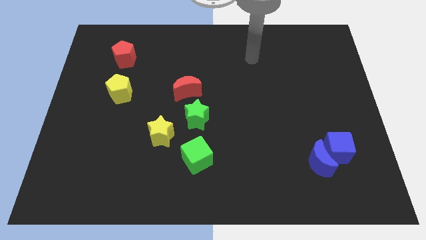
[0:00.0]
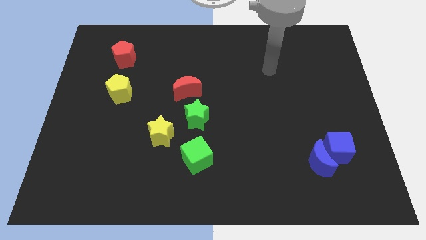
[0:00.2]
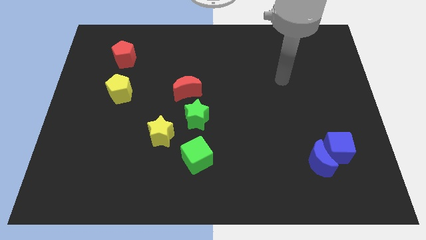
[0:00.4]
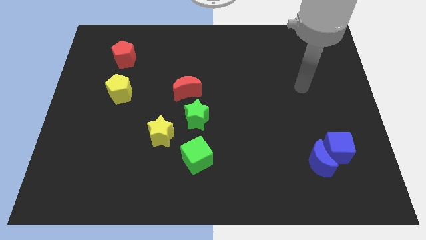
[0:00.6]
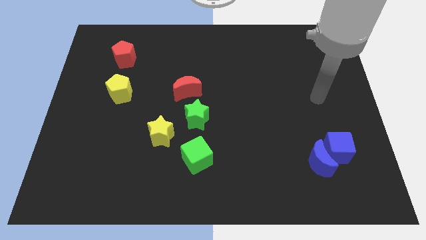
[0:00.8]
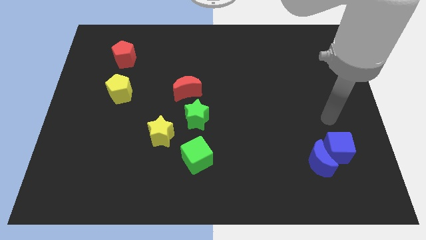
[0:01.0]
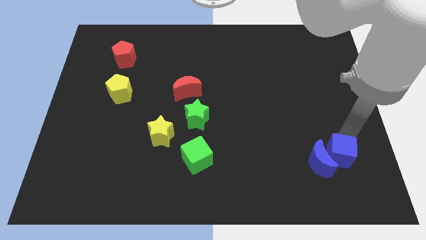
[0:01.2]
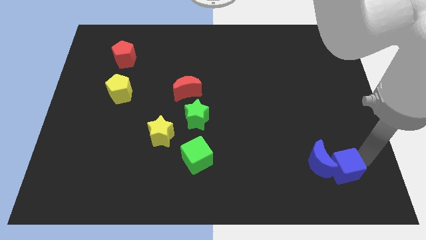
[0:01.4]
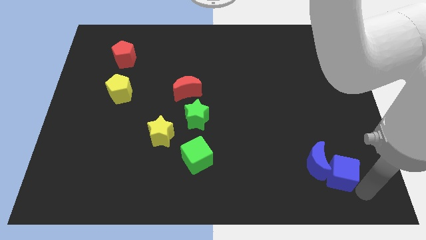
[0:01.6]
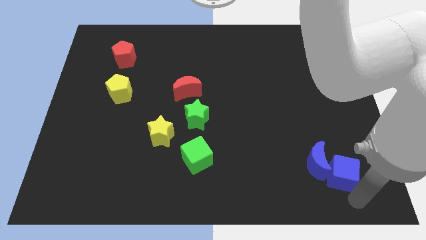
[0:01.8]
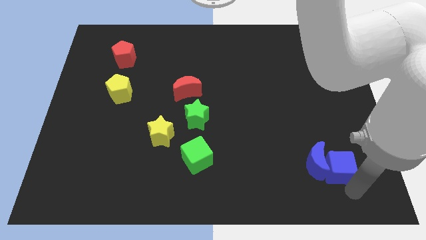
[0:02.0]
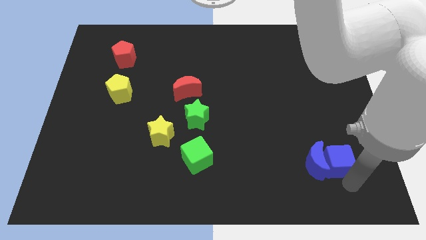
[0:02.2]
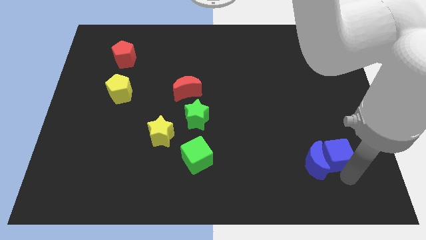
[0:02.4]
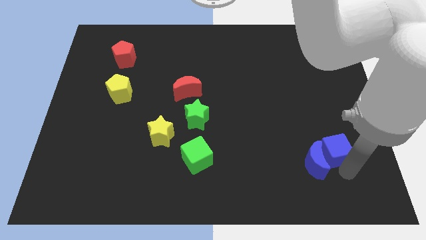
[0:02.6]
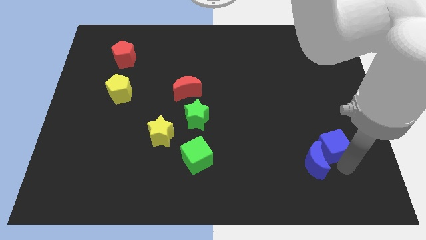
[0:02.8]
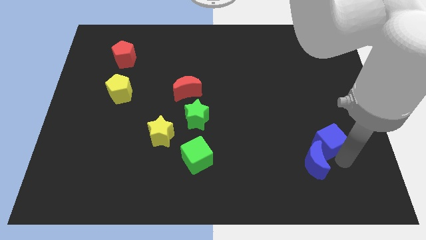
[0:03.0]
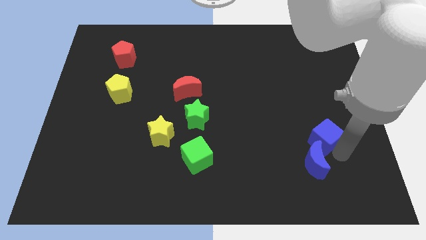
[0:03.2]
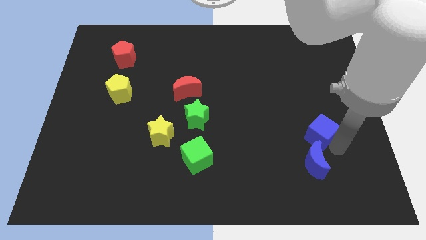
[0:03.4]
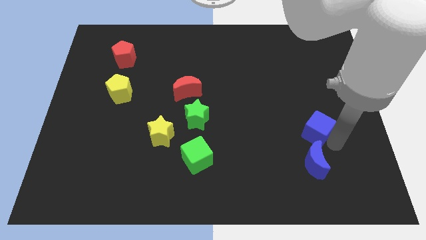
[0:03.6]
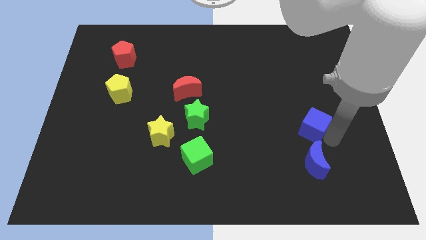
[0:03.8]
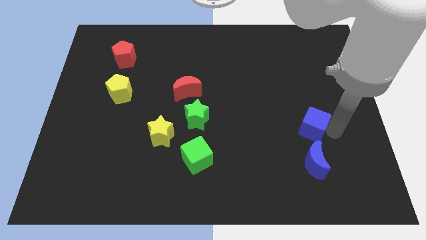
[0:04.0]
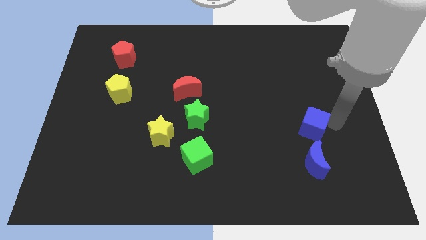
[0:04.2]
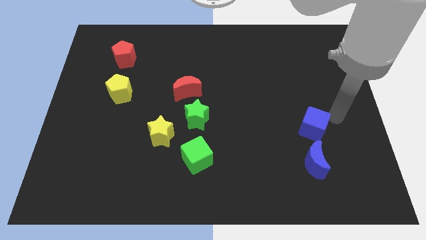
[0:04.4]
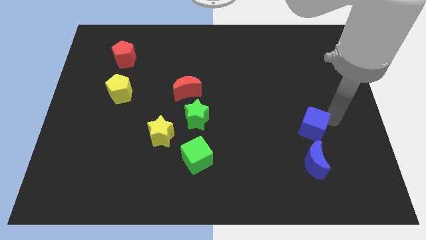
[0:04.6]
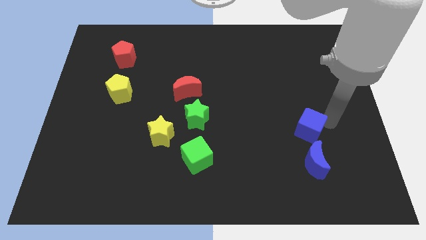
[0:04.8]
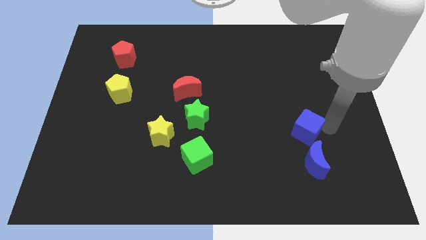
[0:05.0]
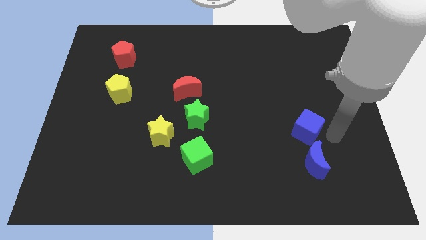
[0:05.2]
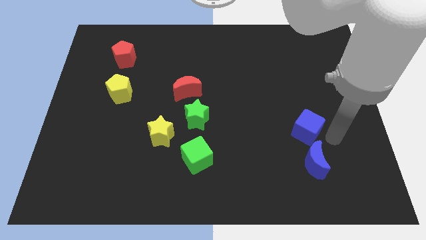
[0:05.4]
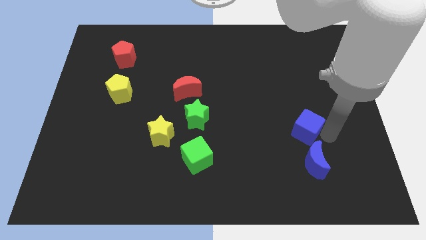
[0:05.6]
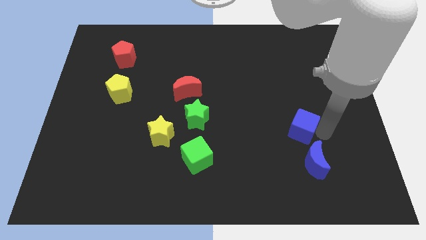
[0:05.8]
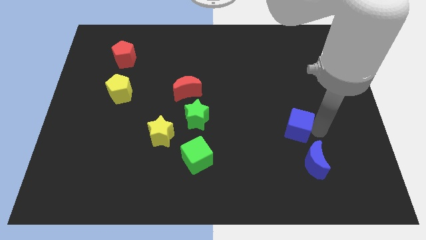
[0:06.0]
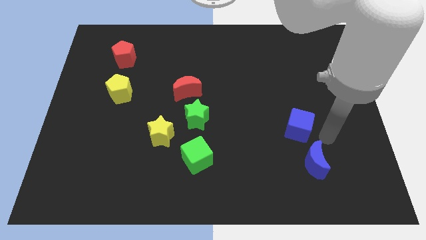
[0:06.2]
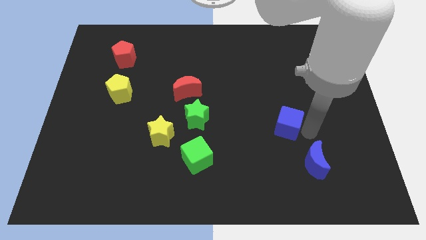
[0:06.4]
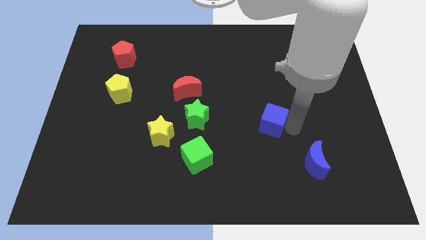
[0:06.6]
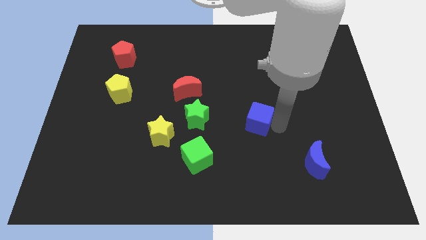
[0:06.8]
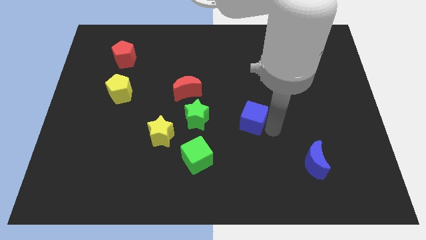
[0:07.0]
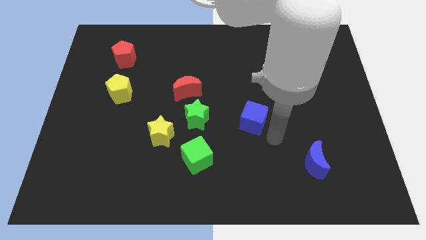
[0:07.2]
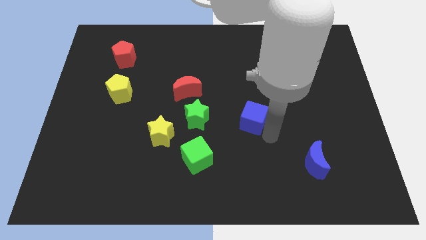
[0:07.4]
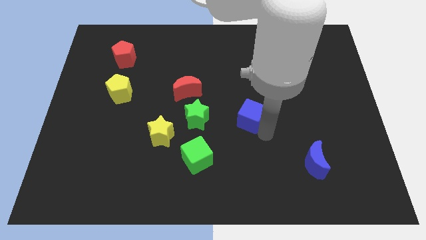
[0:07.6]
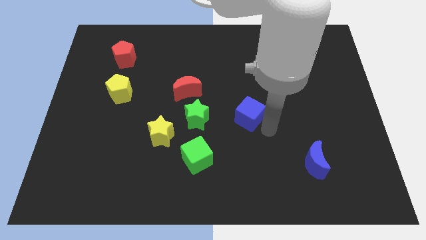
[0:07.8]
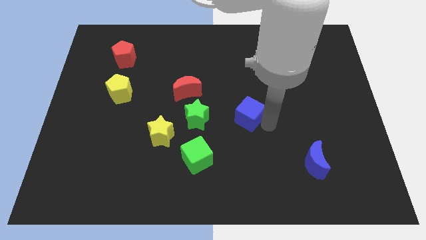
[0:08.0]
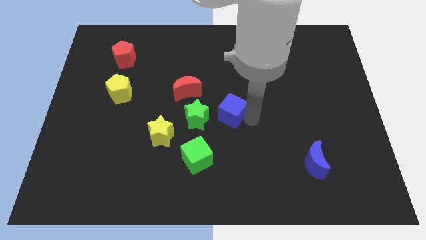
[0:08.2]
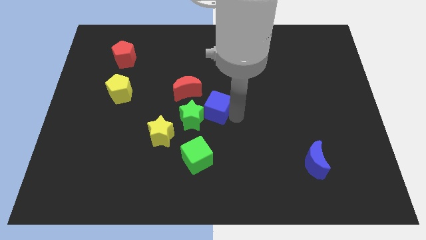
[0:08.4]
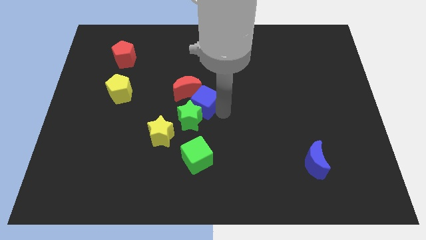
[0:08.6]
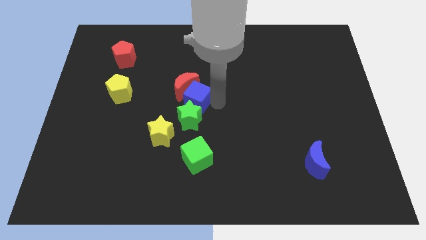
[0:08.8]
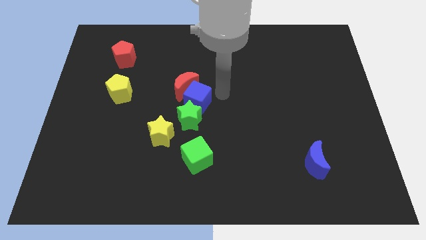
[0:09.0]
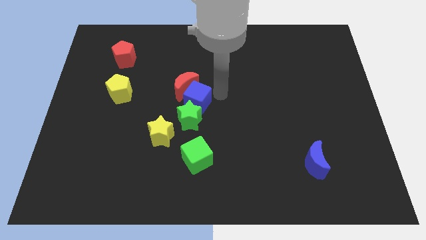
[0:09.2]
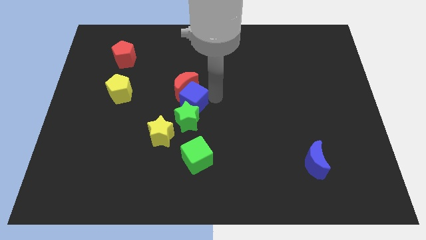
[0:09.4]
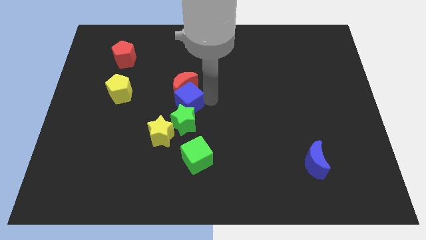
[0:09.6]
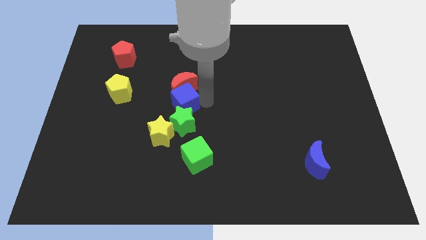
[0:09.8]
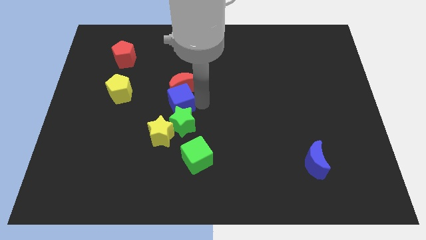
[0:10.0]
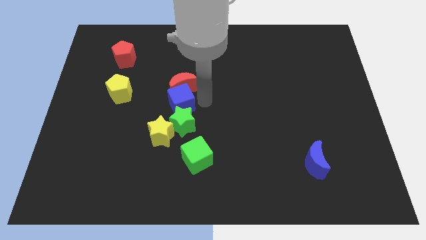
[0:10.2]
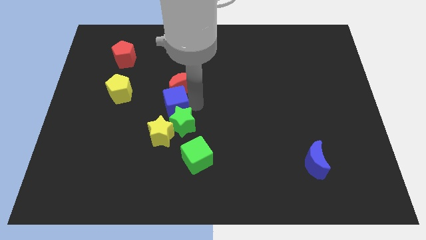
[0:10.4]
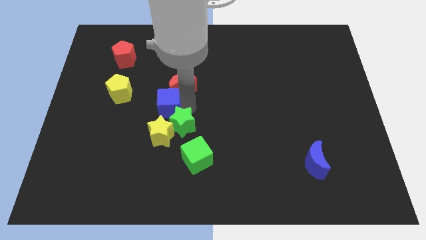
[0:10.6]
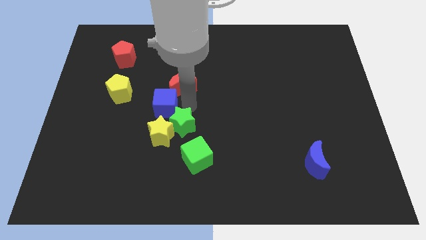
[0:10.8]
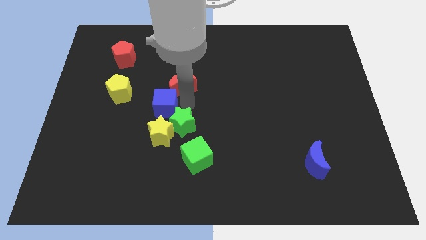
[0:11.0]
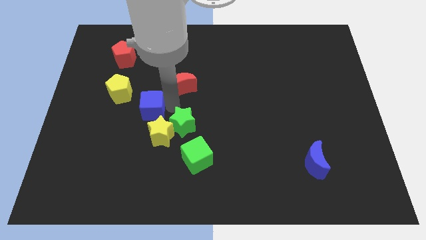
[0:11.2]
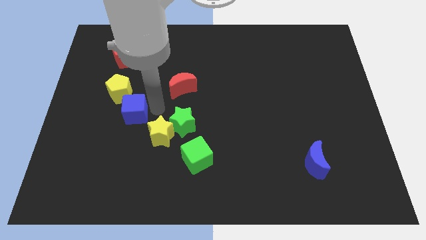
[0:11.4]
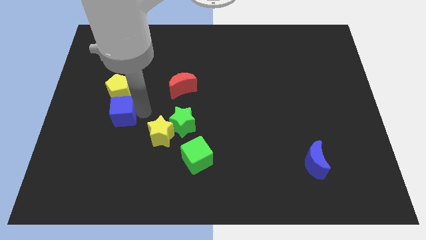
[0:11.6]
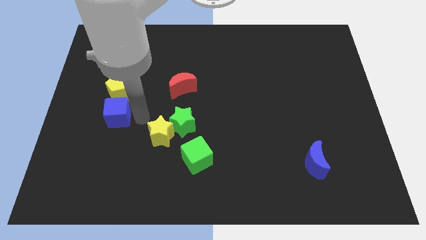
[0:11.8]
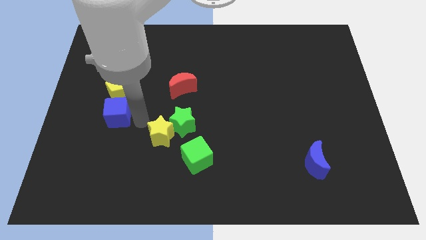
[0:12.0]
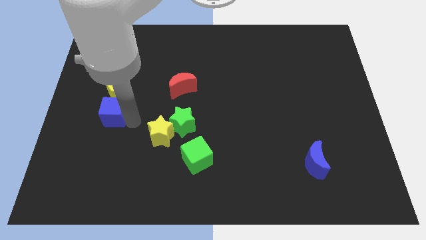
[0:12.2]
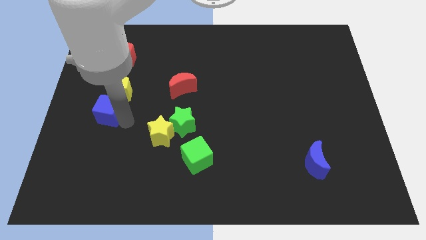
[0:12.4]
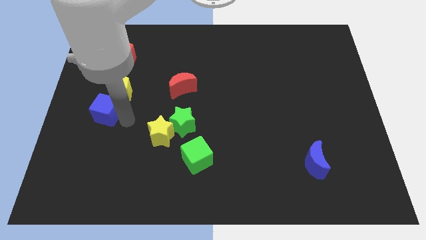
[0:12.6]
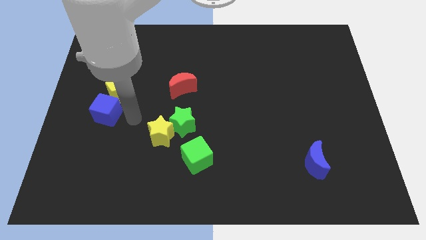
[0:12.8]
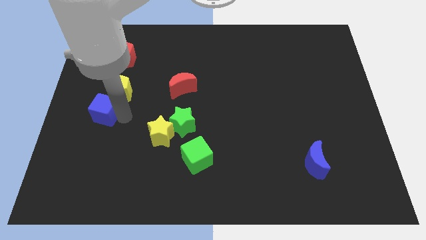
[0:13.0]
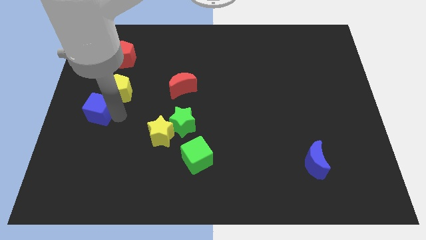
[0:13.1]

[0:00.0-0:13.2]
put the blue cube to the center left
